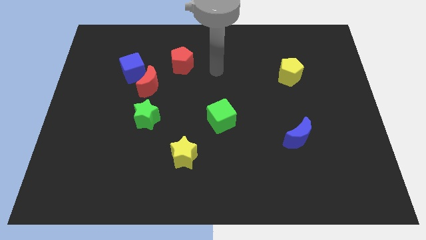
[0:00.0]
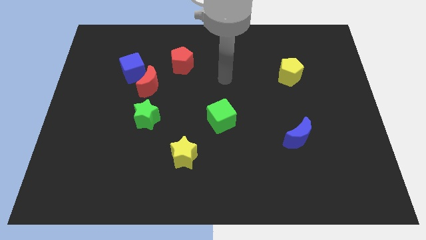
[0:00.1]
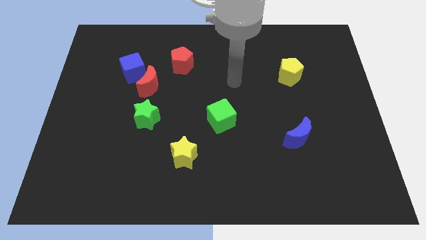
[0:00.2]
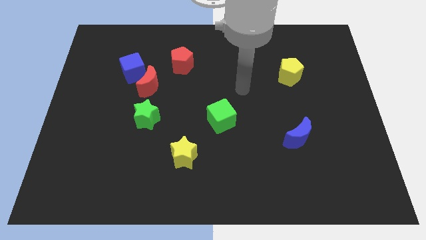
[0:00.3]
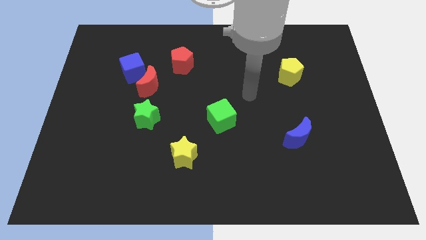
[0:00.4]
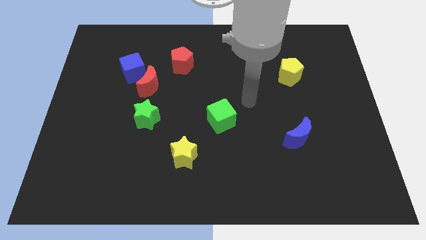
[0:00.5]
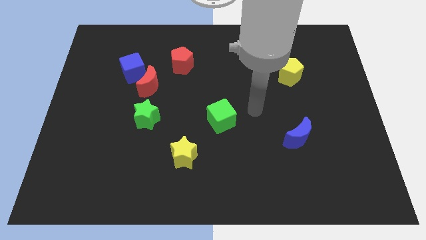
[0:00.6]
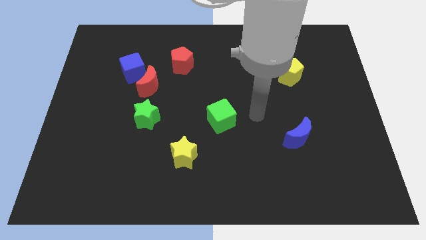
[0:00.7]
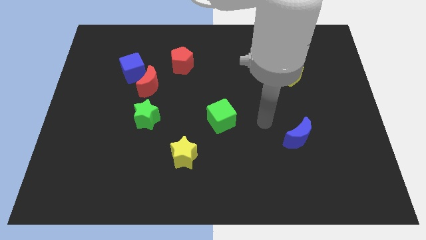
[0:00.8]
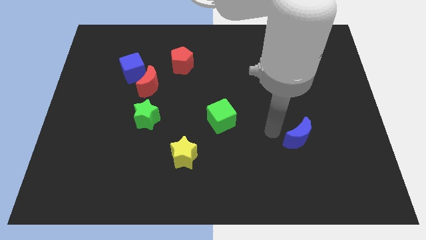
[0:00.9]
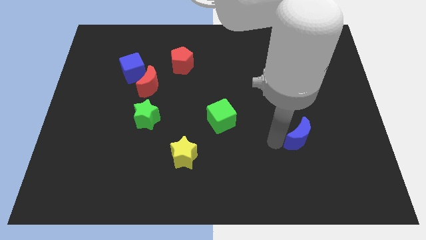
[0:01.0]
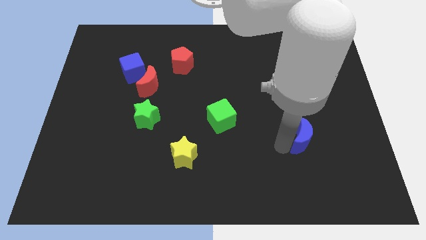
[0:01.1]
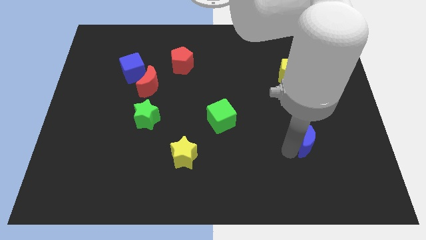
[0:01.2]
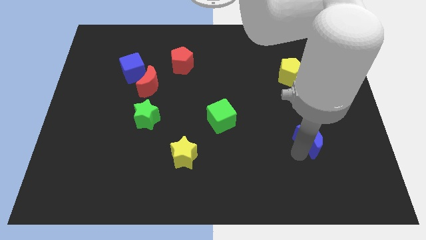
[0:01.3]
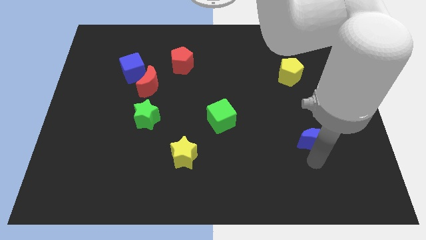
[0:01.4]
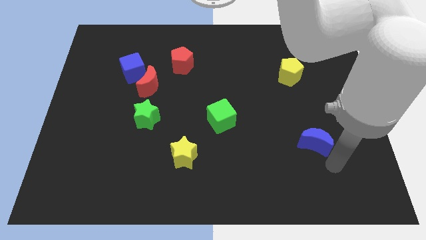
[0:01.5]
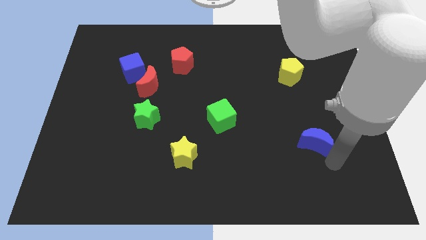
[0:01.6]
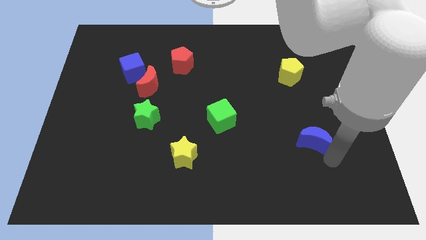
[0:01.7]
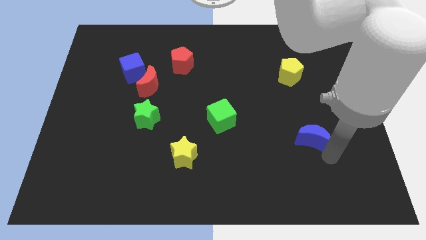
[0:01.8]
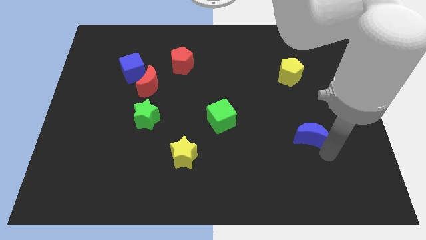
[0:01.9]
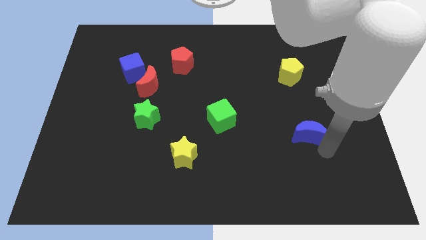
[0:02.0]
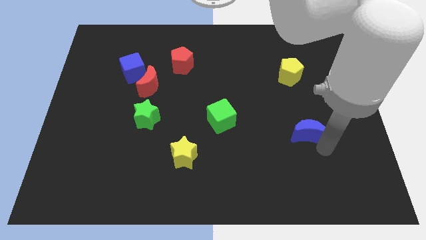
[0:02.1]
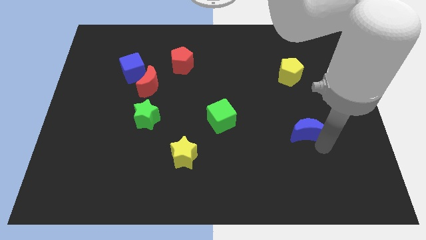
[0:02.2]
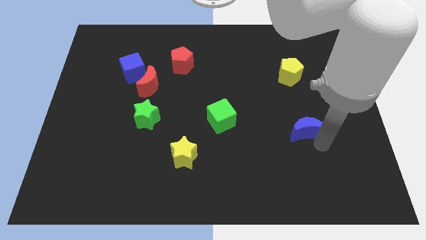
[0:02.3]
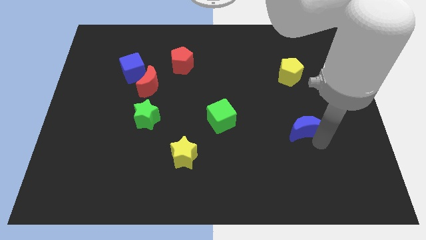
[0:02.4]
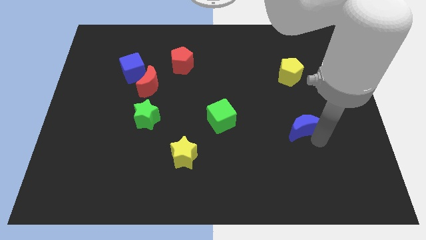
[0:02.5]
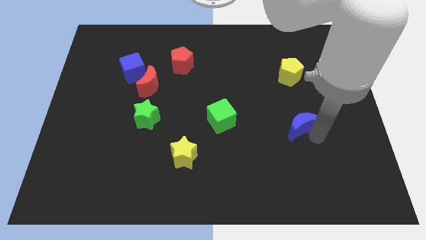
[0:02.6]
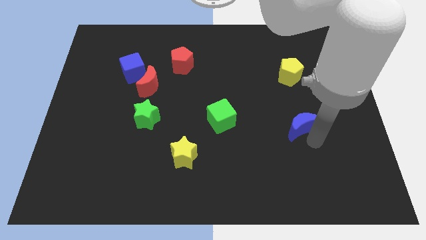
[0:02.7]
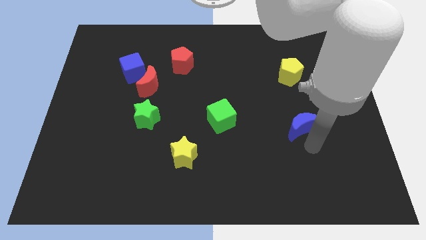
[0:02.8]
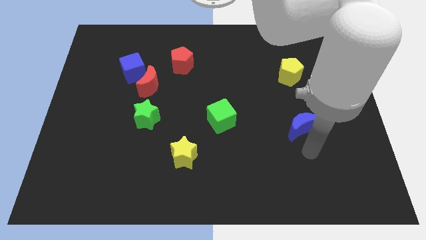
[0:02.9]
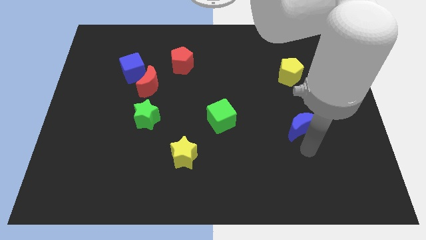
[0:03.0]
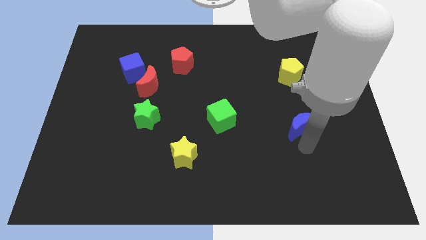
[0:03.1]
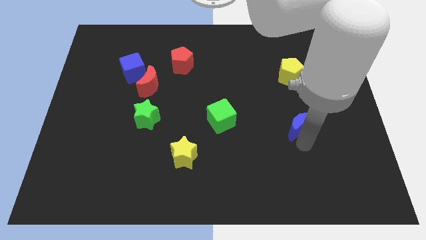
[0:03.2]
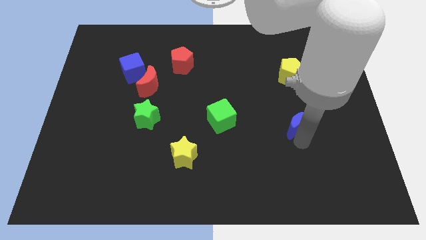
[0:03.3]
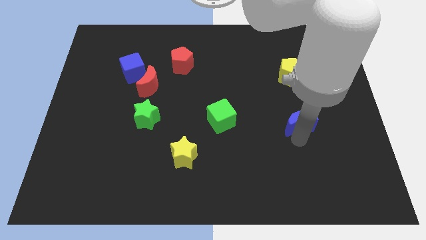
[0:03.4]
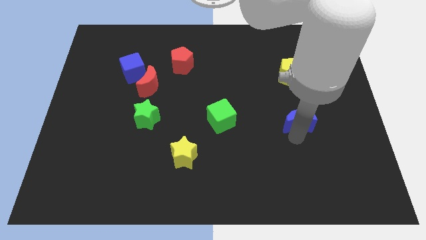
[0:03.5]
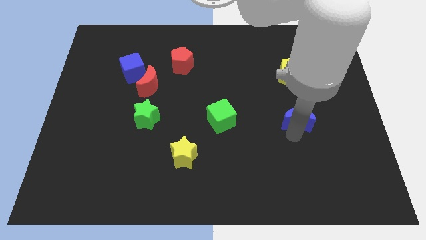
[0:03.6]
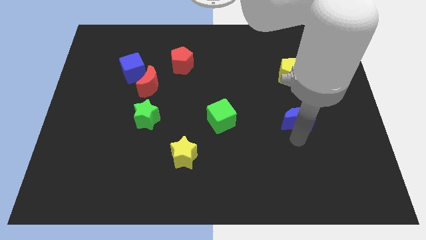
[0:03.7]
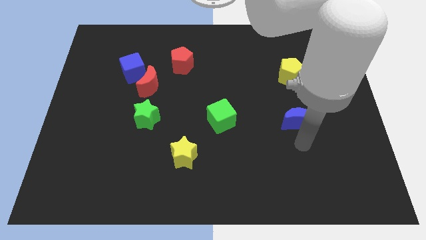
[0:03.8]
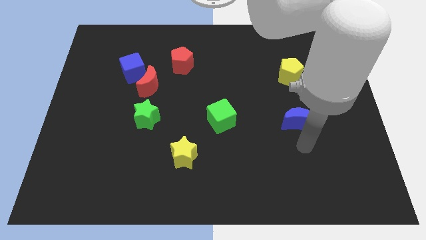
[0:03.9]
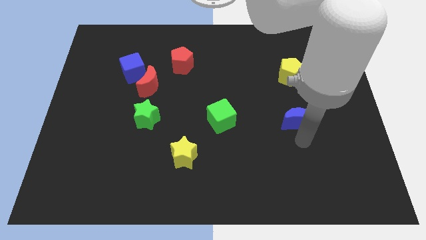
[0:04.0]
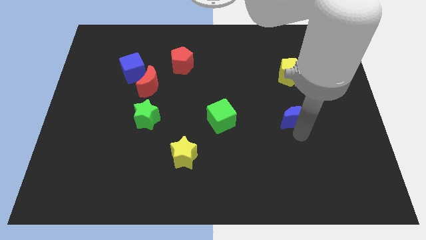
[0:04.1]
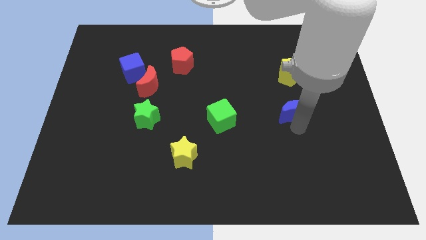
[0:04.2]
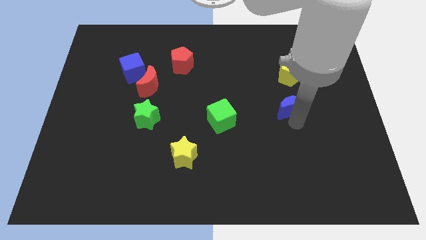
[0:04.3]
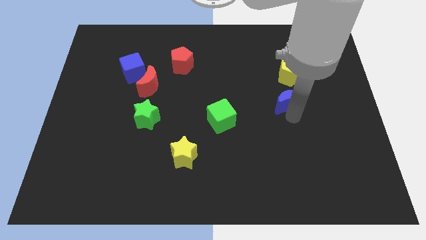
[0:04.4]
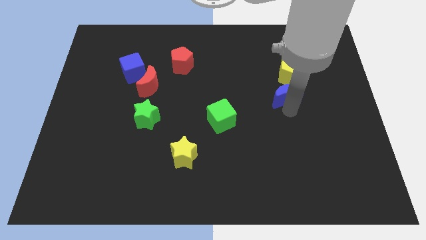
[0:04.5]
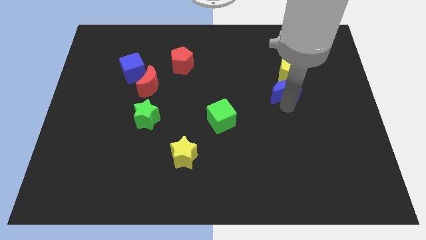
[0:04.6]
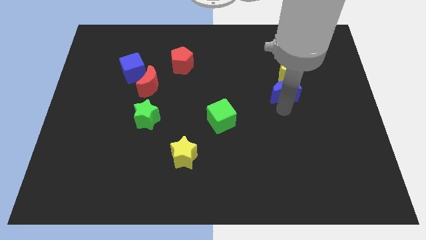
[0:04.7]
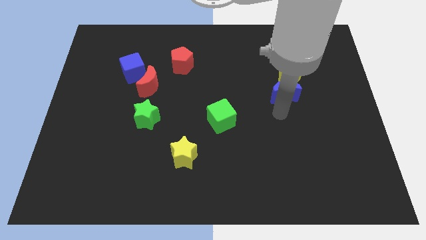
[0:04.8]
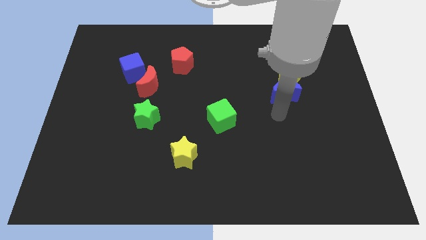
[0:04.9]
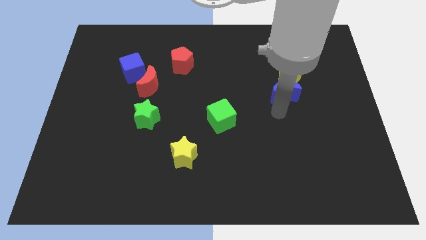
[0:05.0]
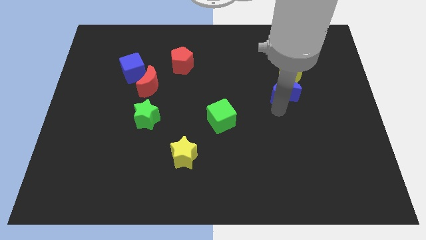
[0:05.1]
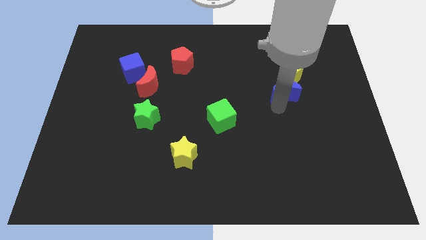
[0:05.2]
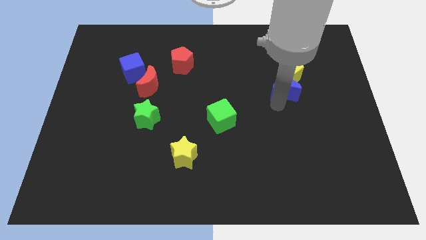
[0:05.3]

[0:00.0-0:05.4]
push the blue moon to the yellow pentagon

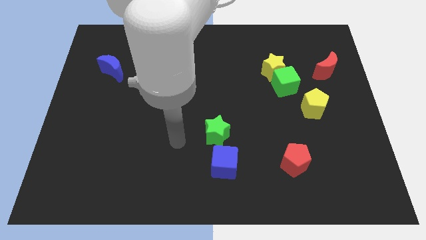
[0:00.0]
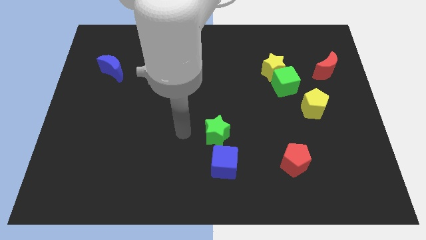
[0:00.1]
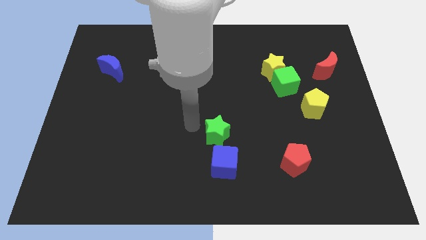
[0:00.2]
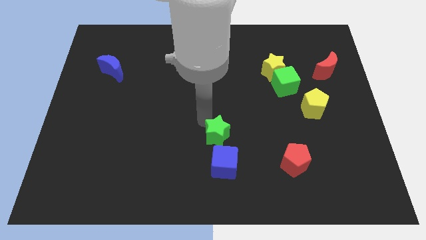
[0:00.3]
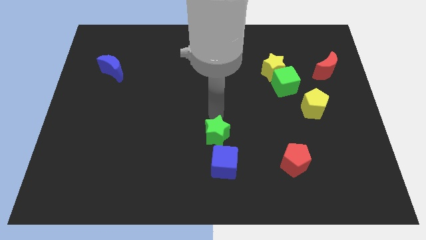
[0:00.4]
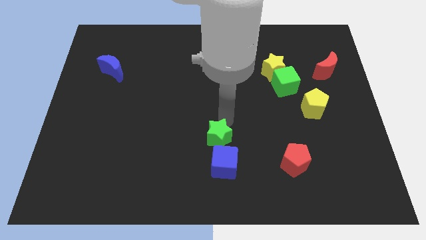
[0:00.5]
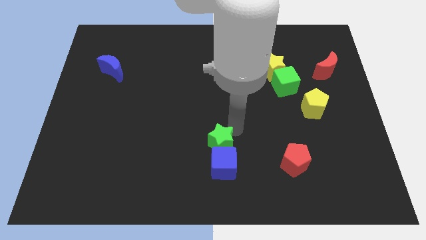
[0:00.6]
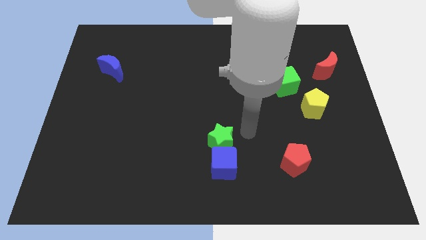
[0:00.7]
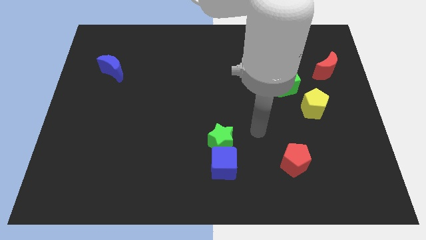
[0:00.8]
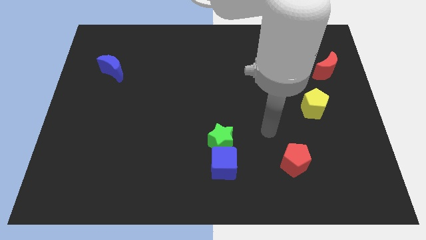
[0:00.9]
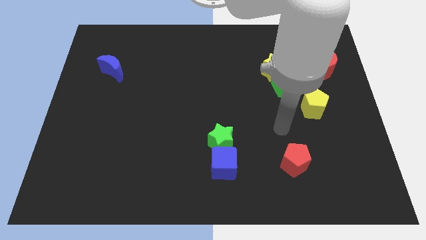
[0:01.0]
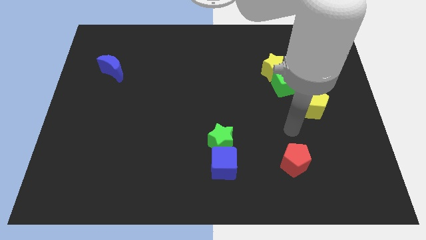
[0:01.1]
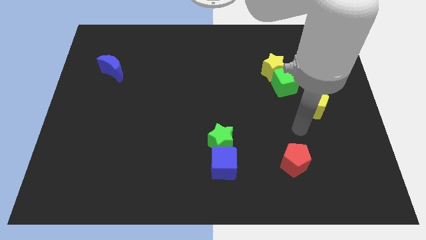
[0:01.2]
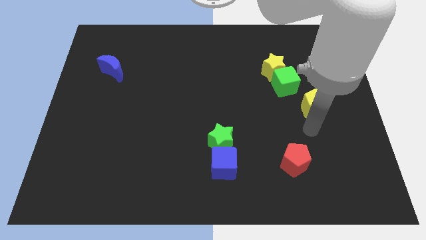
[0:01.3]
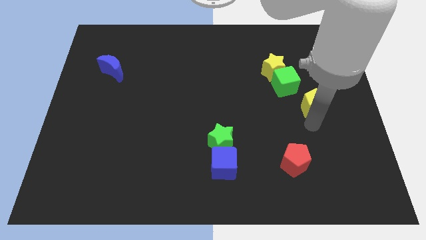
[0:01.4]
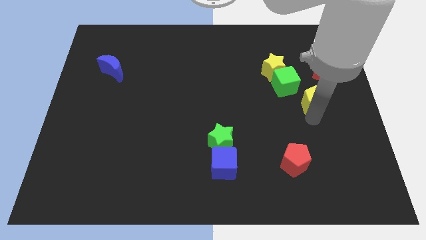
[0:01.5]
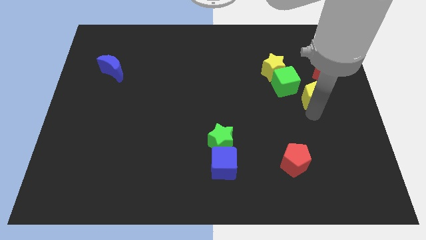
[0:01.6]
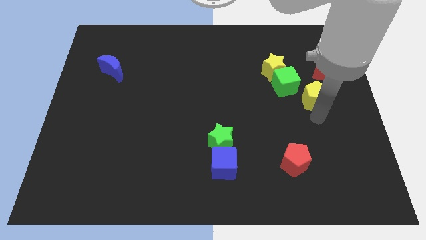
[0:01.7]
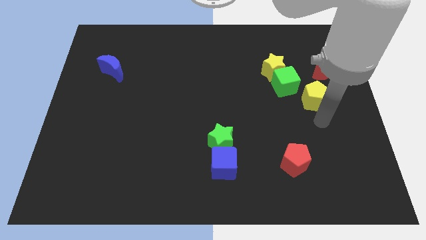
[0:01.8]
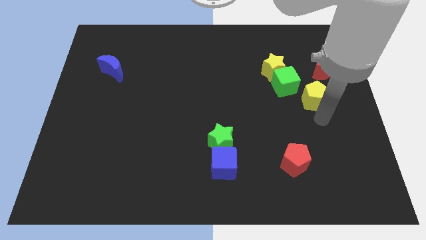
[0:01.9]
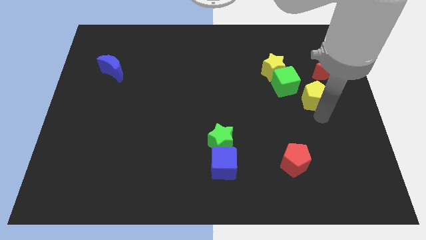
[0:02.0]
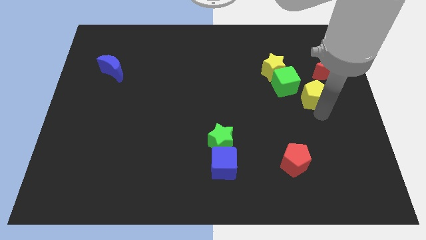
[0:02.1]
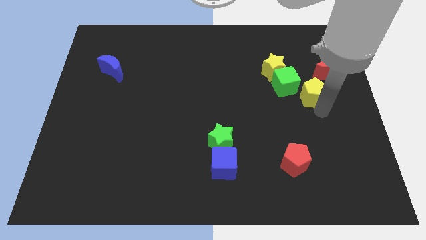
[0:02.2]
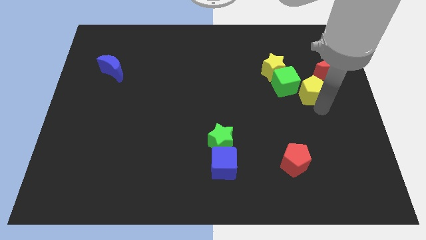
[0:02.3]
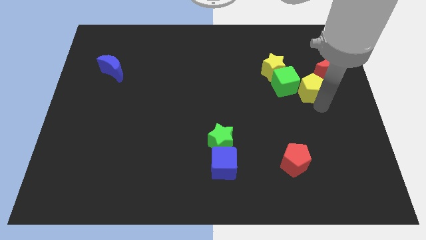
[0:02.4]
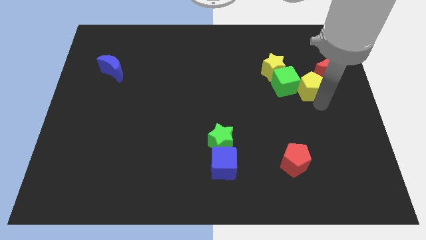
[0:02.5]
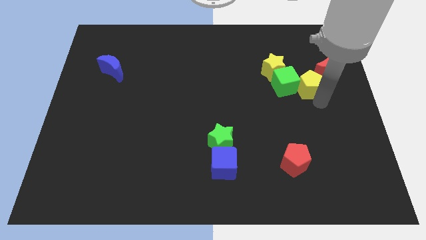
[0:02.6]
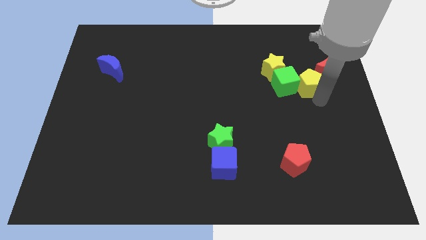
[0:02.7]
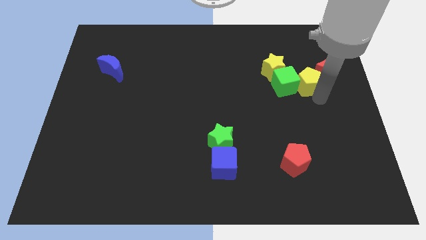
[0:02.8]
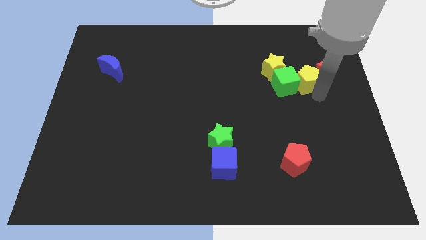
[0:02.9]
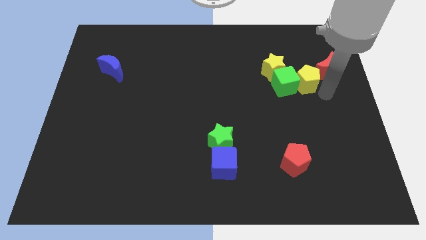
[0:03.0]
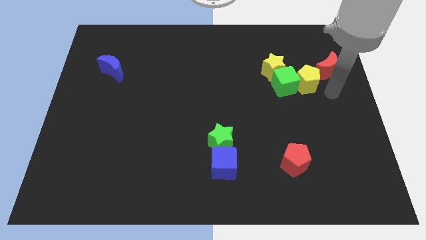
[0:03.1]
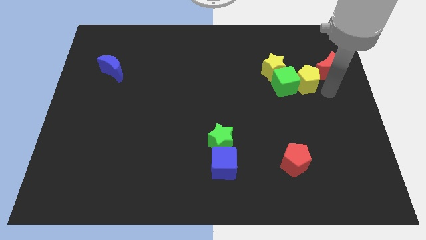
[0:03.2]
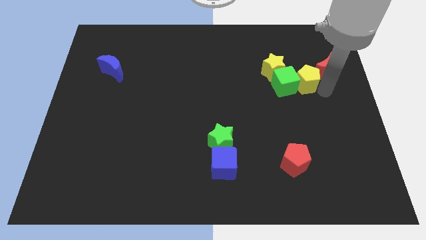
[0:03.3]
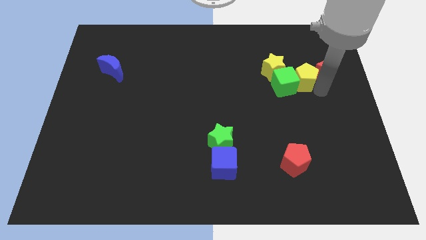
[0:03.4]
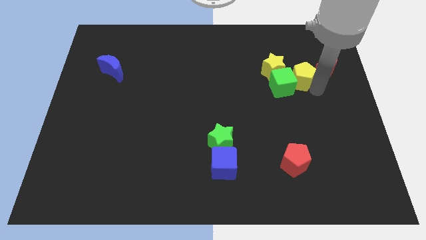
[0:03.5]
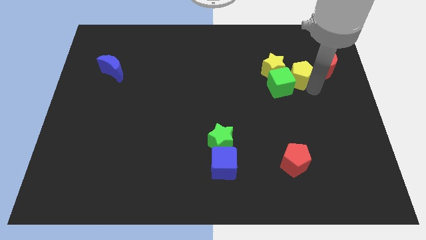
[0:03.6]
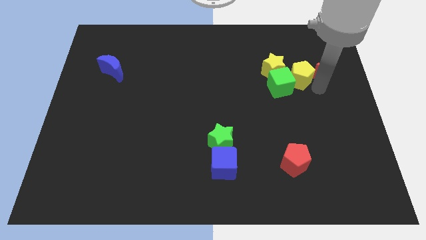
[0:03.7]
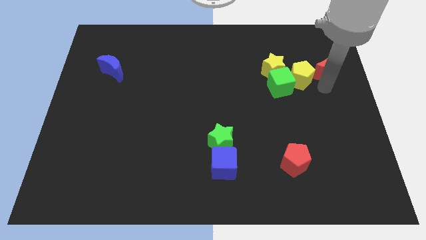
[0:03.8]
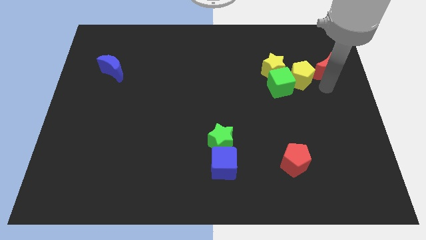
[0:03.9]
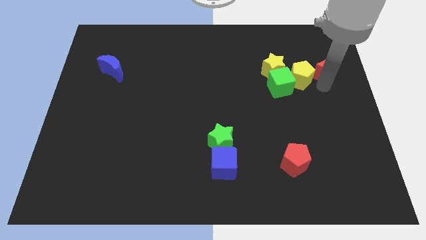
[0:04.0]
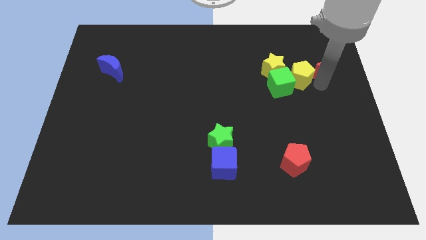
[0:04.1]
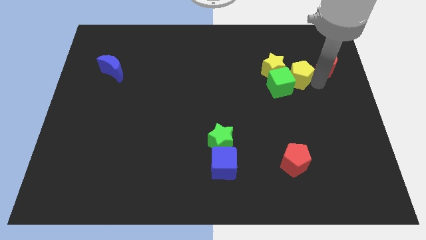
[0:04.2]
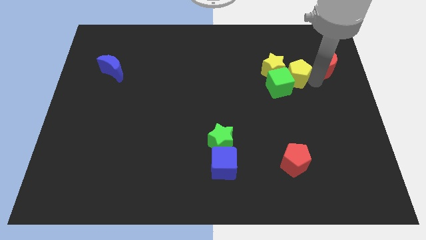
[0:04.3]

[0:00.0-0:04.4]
slide the yellow pentagon close to the yellow star
